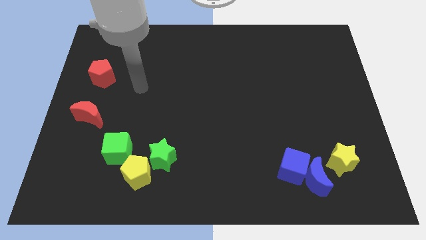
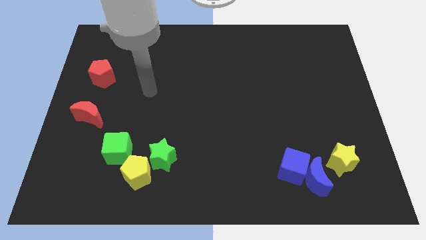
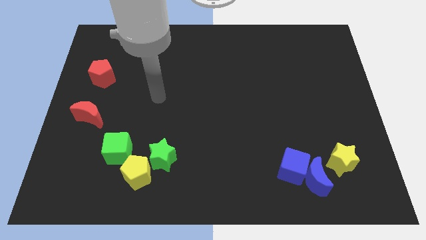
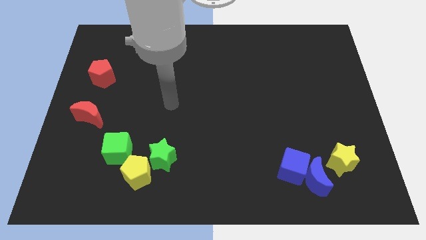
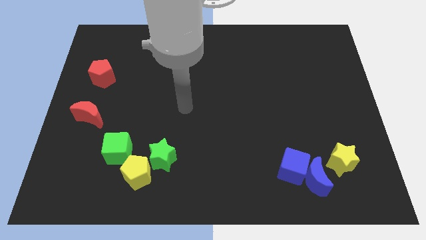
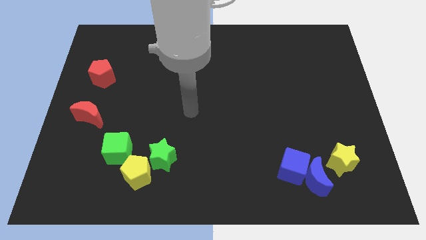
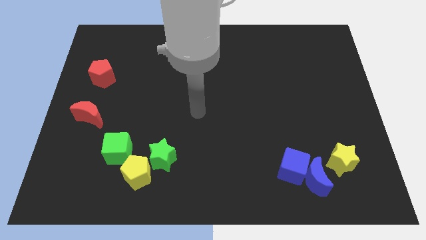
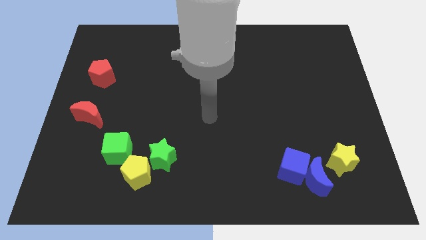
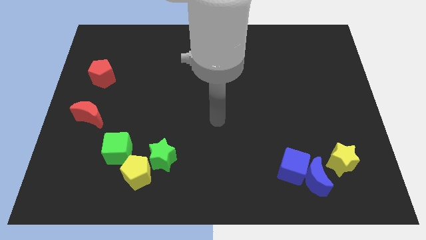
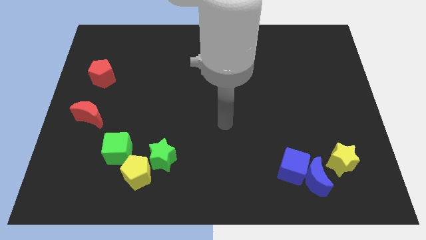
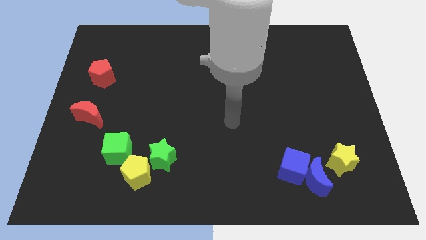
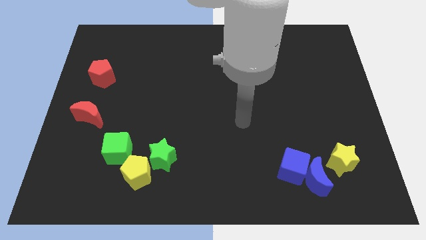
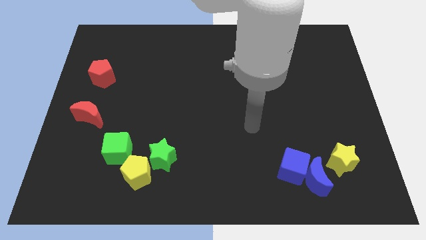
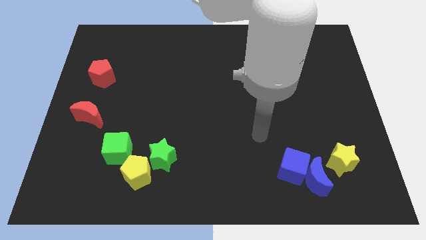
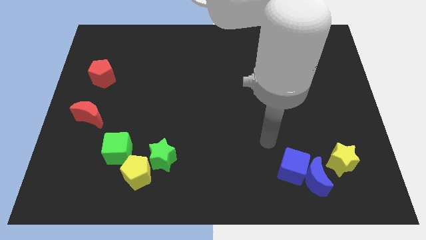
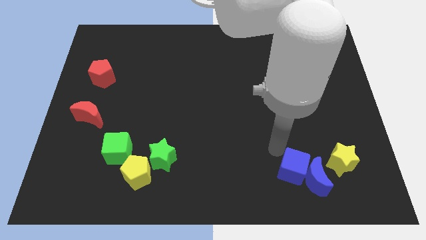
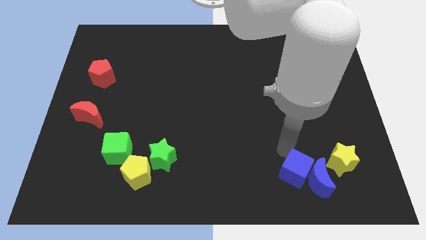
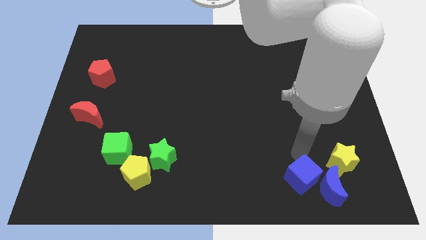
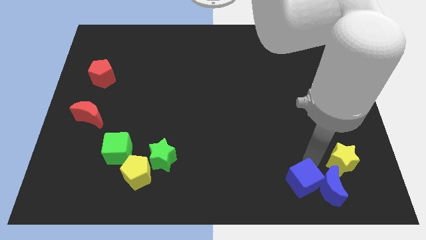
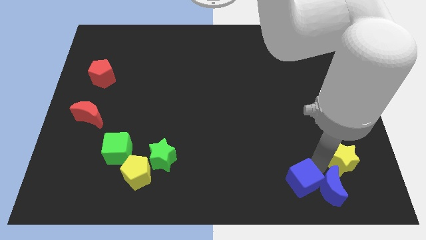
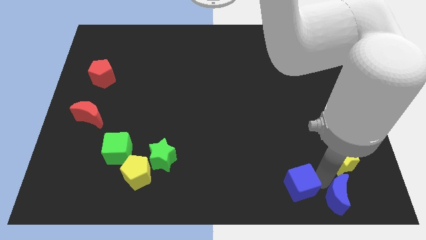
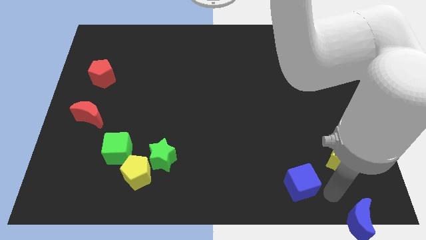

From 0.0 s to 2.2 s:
move the blue cube away from the blue moon

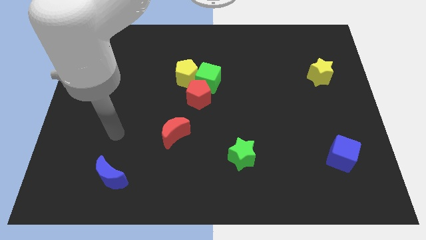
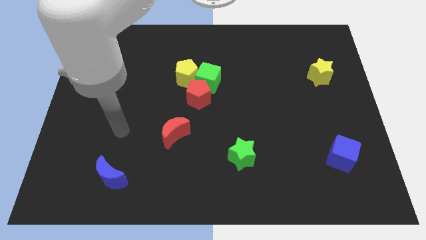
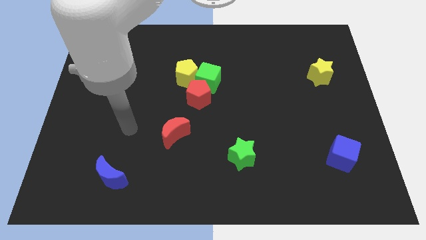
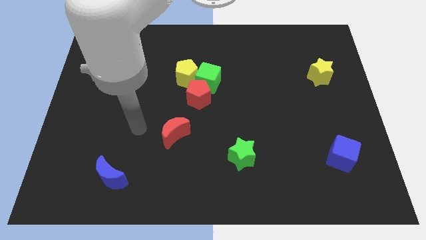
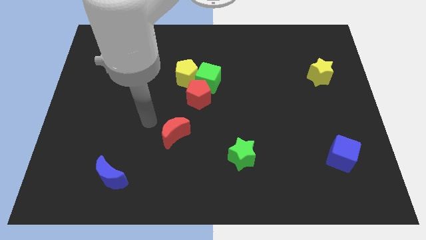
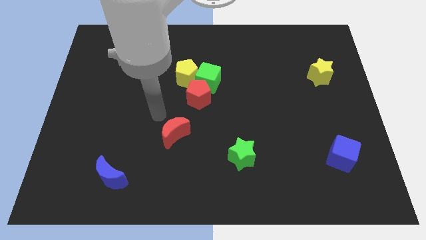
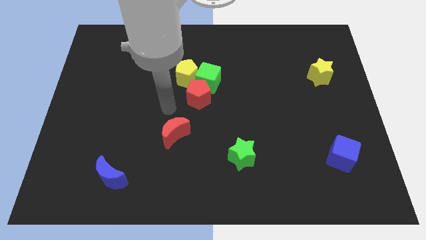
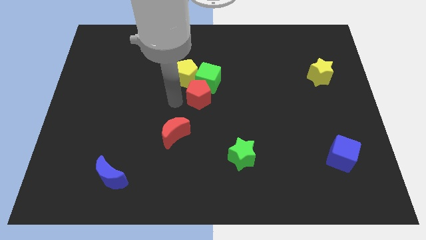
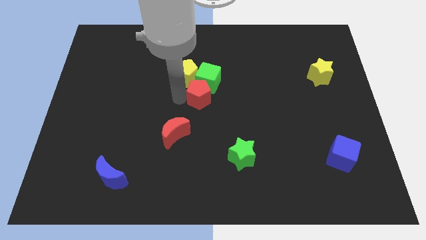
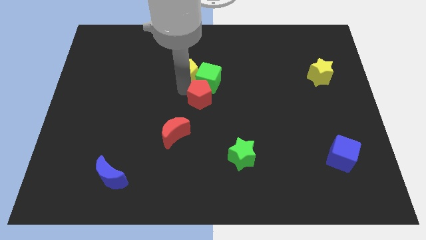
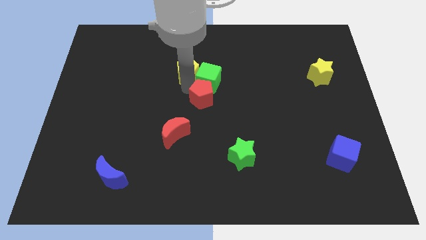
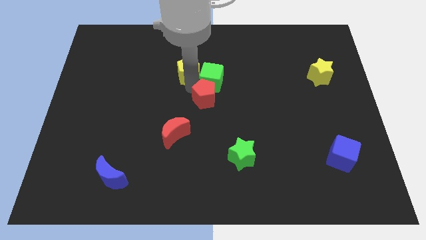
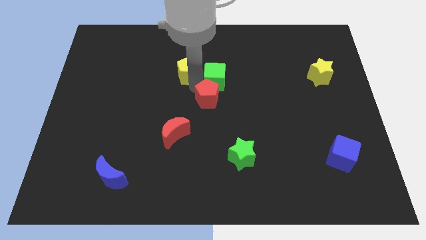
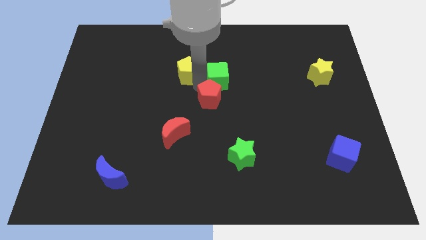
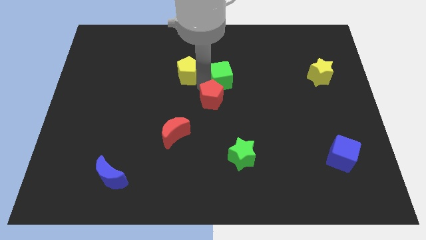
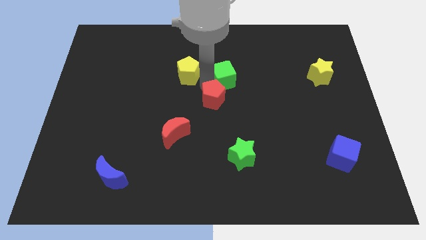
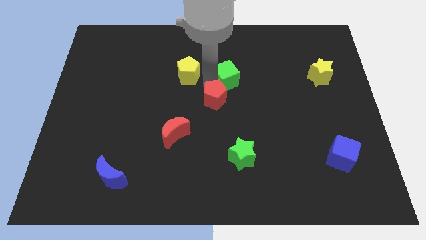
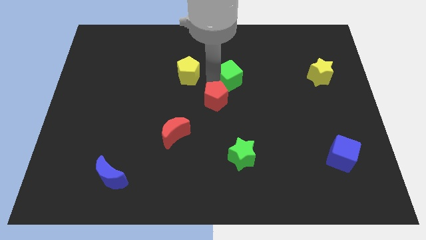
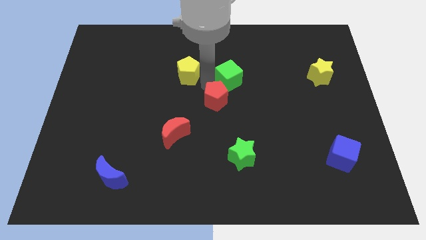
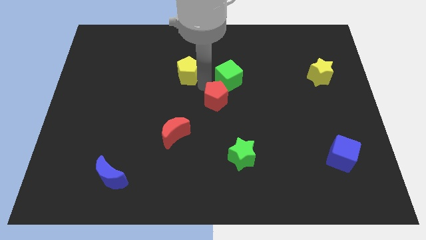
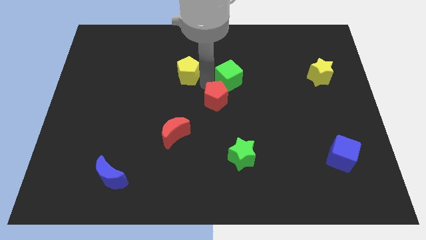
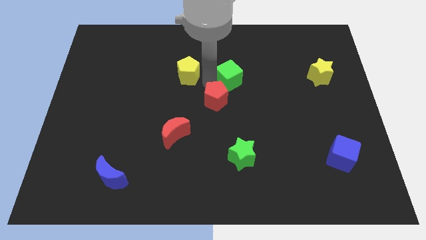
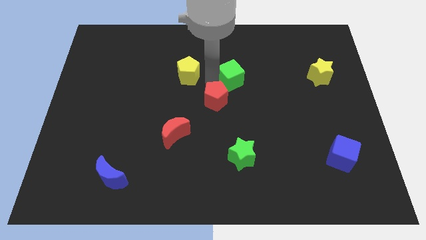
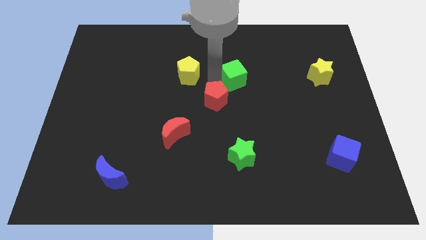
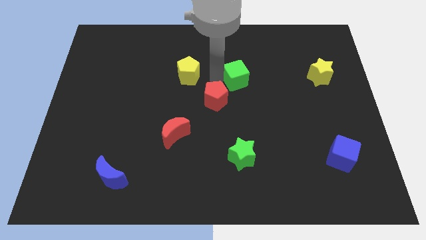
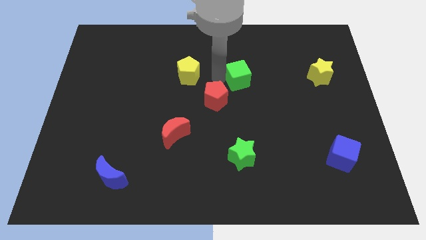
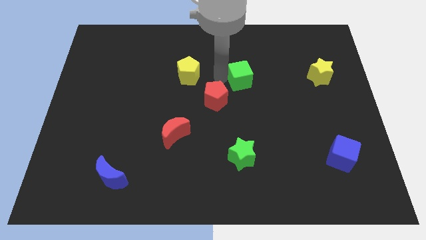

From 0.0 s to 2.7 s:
separate the green cube from the red pentagon and yellow pentagon

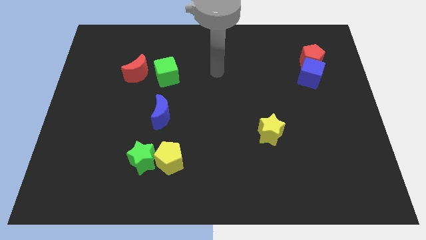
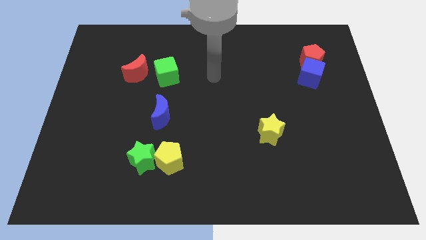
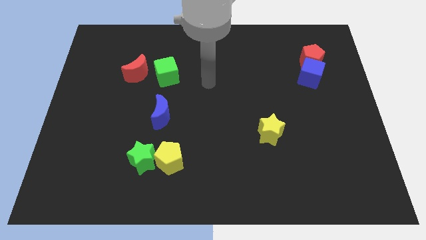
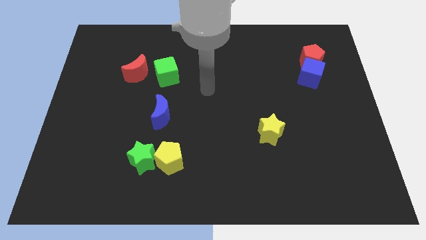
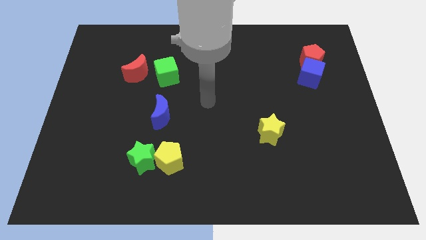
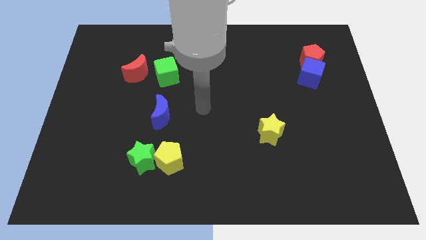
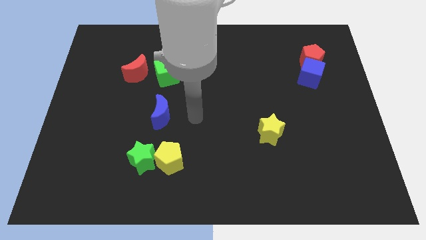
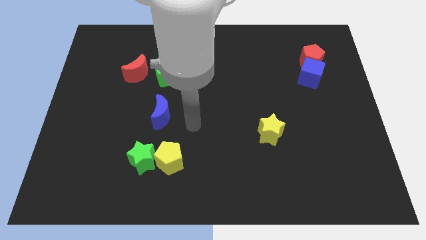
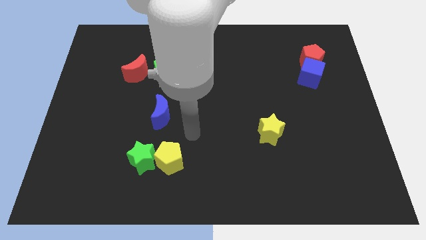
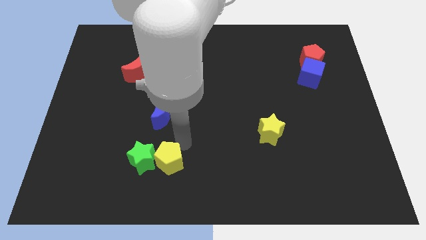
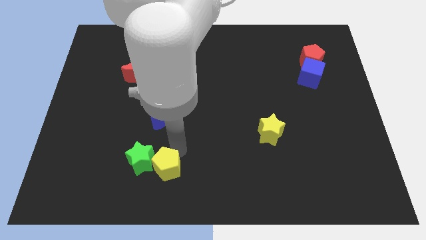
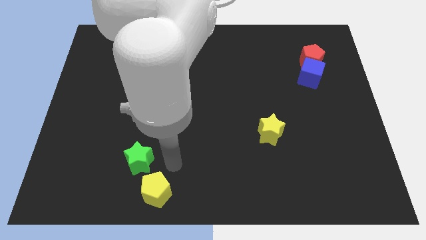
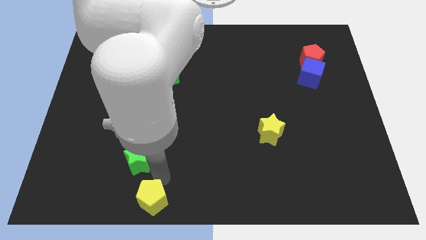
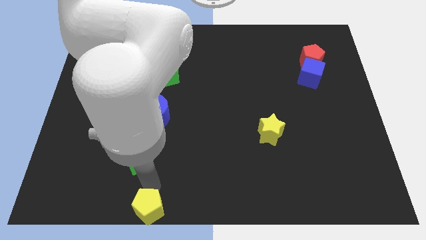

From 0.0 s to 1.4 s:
separate the green star from the yellow pentagon

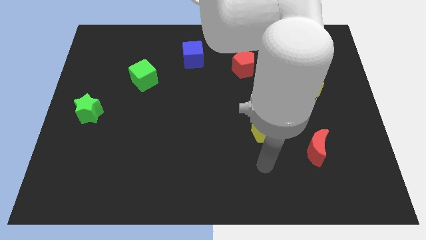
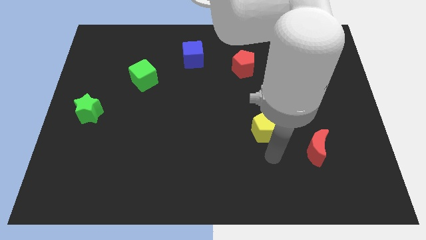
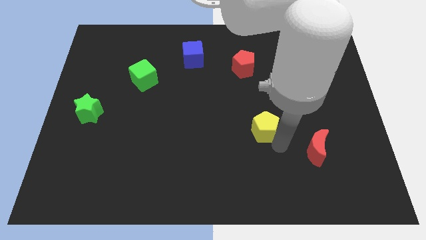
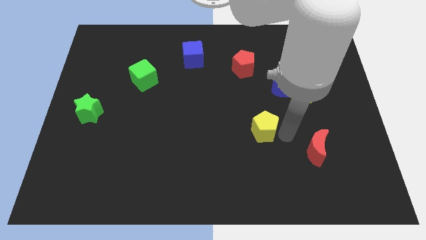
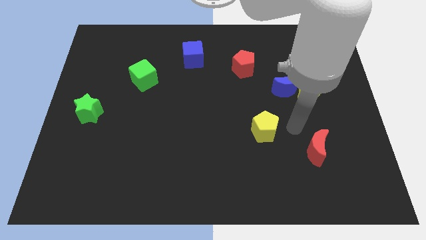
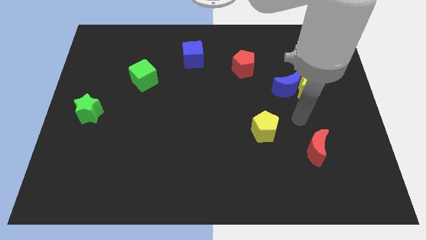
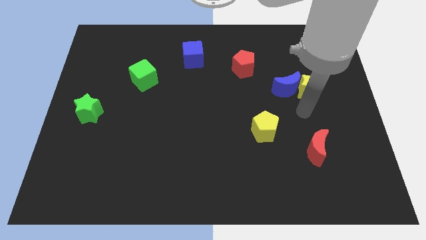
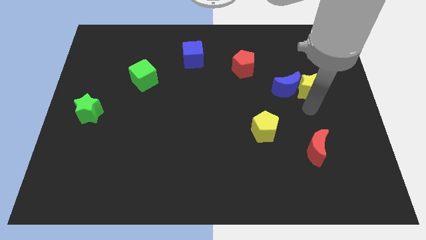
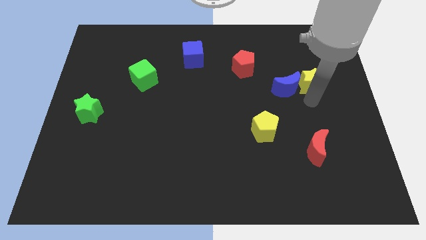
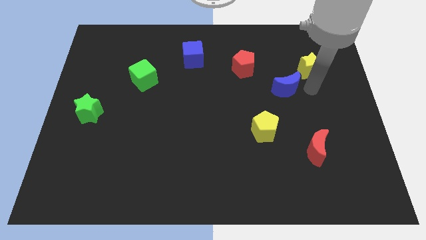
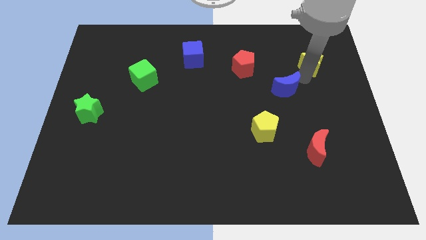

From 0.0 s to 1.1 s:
move the blue moon away from the yellow star

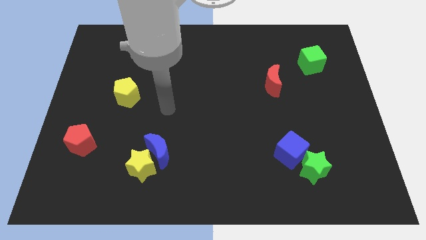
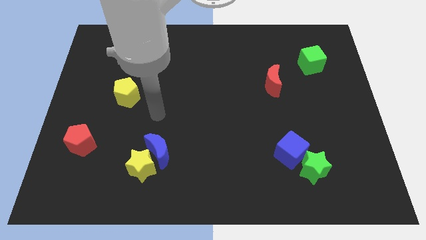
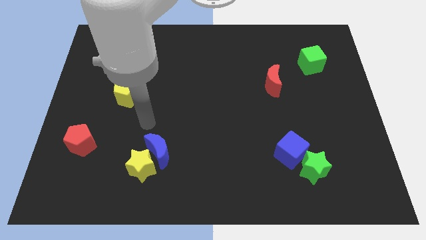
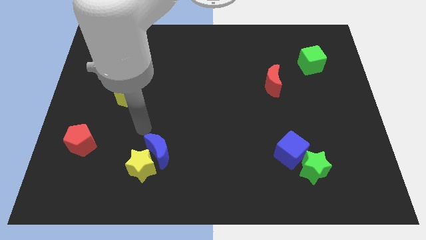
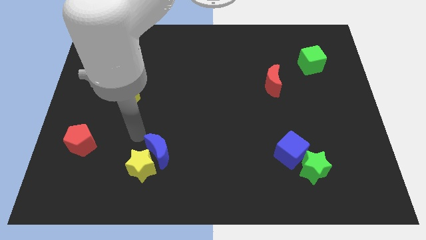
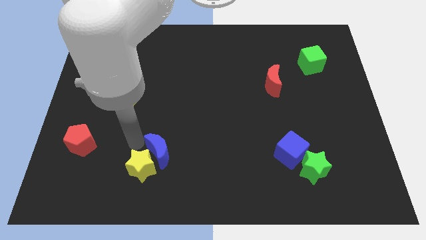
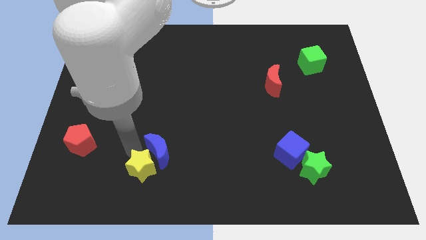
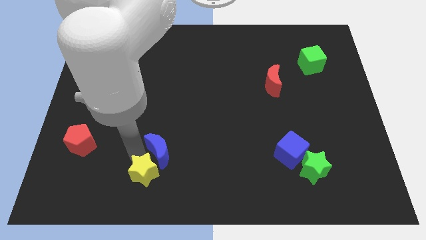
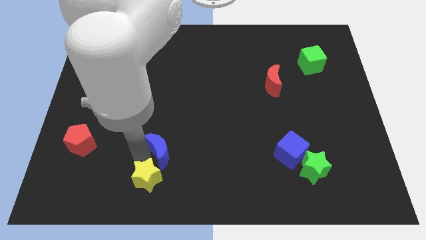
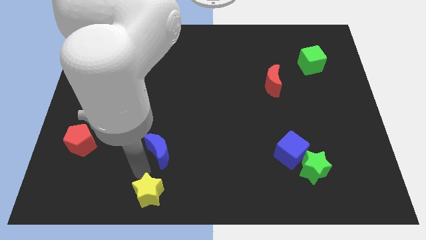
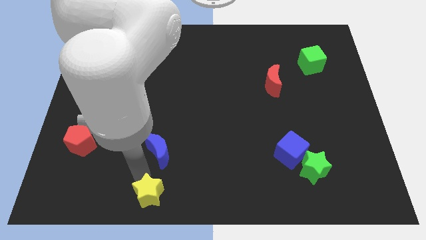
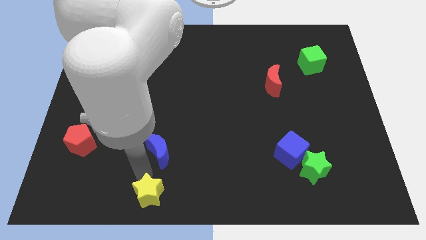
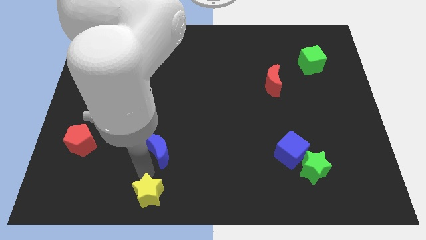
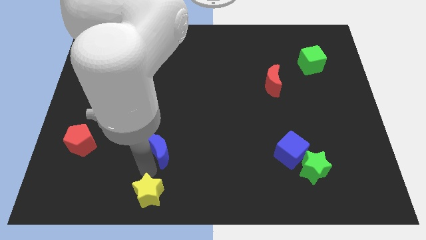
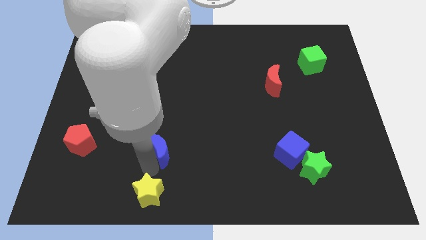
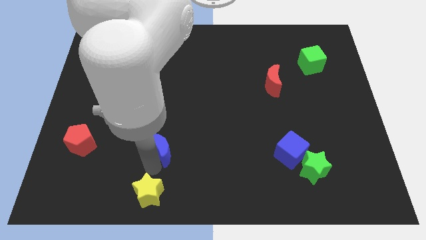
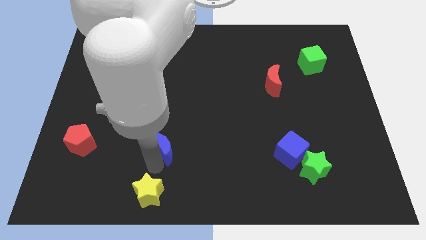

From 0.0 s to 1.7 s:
pull the blue moon apart from the yellow star

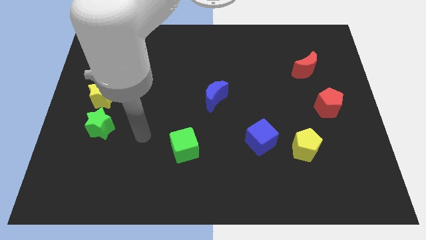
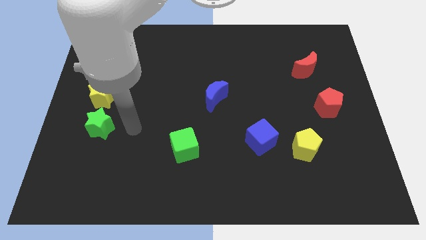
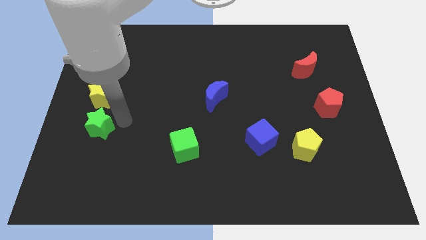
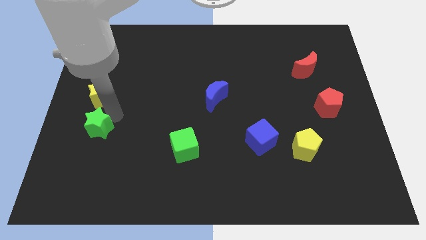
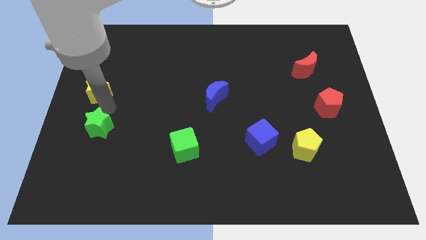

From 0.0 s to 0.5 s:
separate the green star from the yellow star
